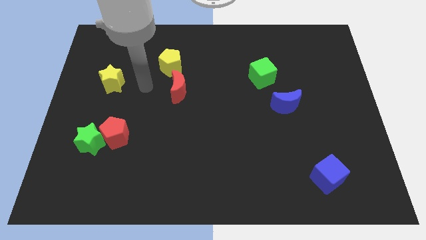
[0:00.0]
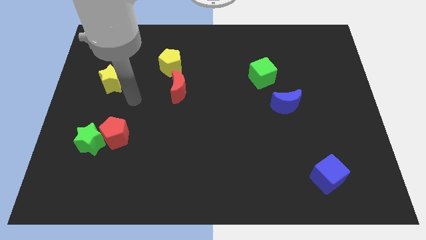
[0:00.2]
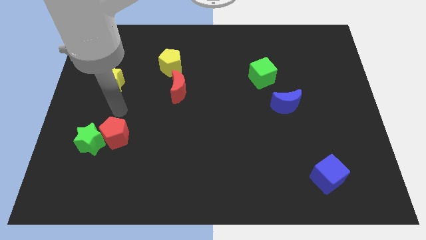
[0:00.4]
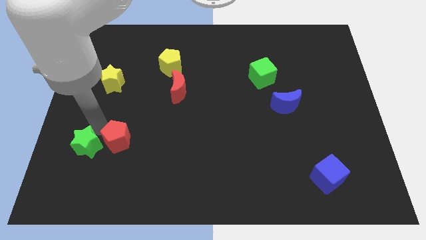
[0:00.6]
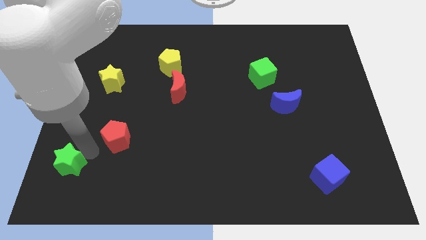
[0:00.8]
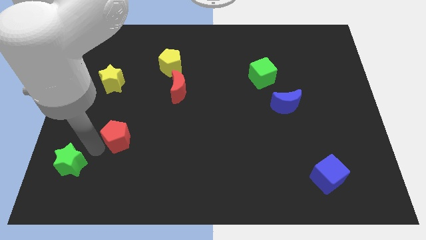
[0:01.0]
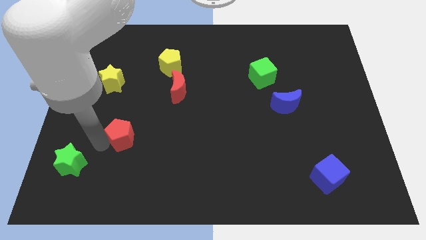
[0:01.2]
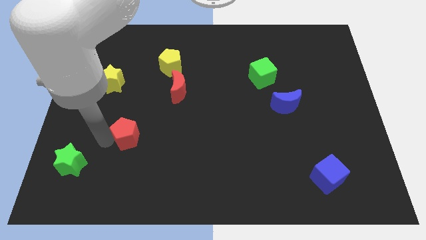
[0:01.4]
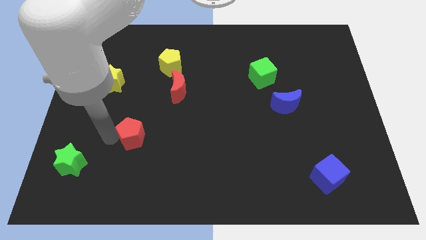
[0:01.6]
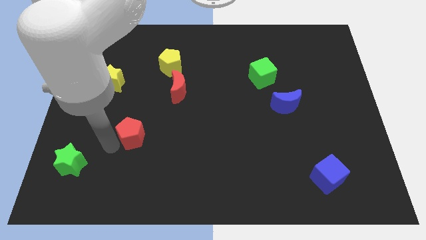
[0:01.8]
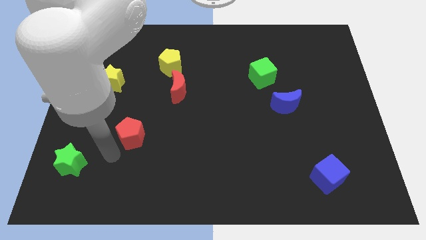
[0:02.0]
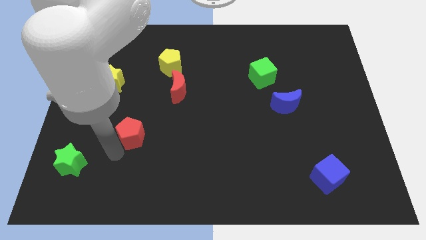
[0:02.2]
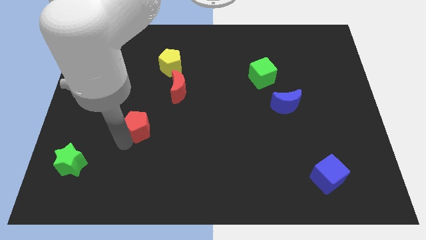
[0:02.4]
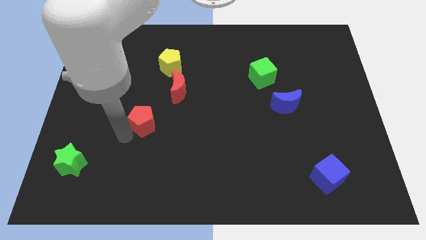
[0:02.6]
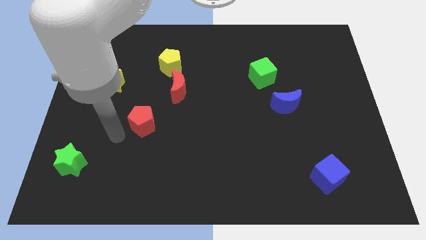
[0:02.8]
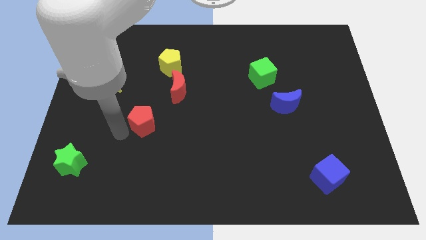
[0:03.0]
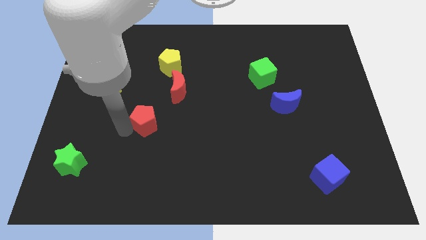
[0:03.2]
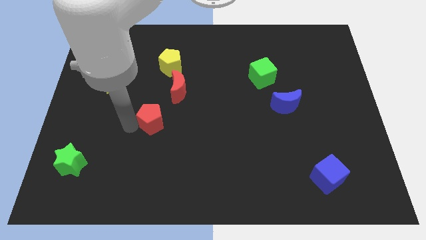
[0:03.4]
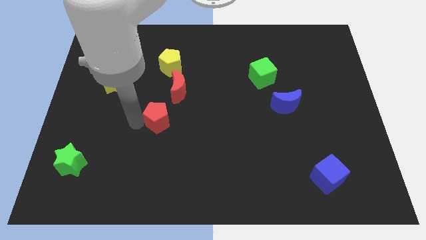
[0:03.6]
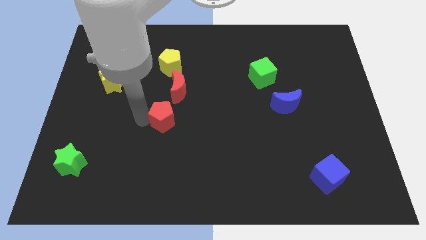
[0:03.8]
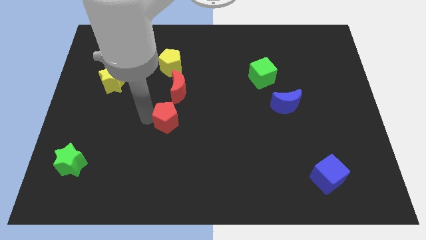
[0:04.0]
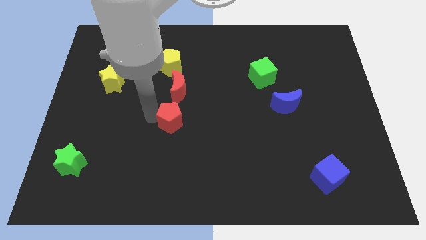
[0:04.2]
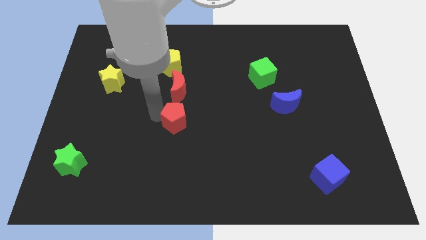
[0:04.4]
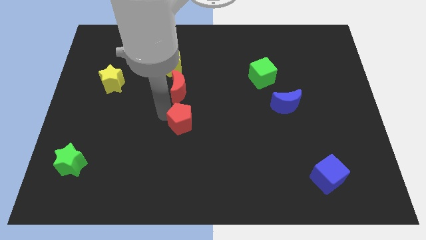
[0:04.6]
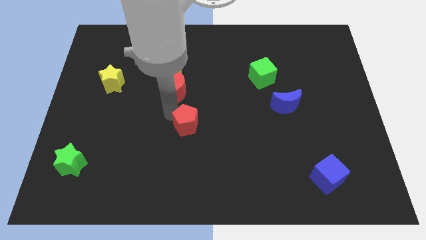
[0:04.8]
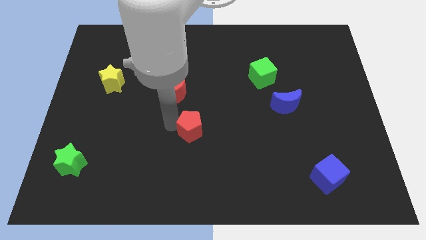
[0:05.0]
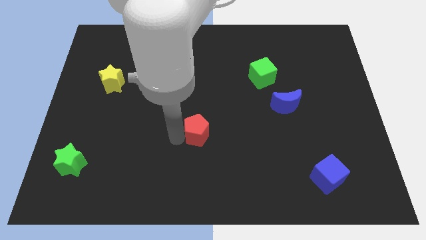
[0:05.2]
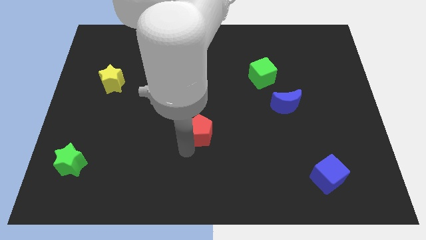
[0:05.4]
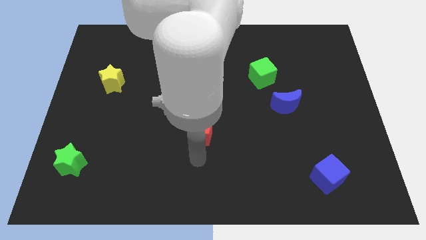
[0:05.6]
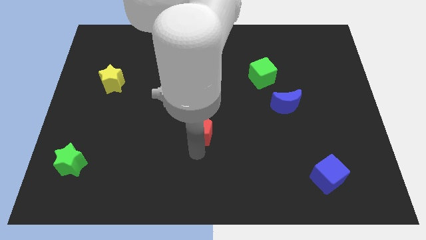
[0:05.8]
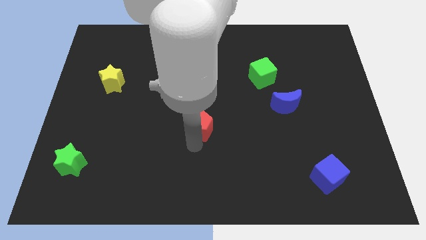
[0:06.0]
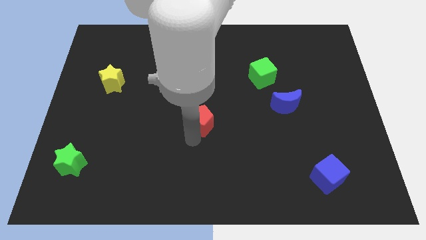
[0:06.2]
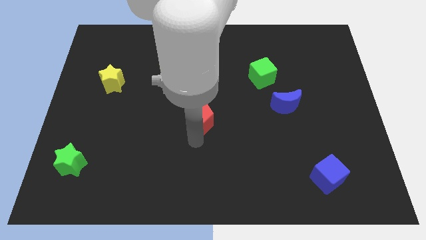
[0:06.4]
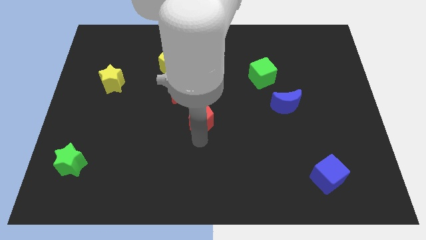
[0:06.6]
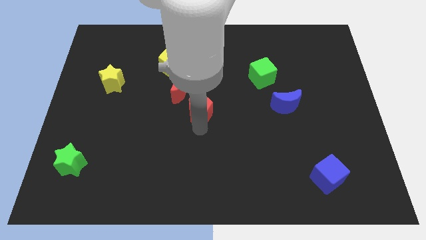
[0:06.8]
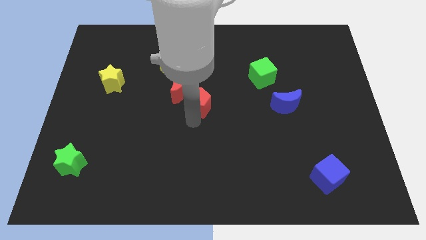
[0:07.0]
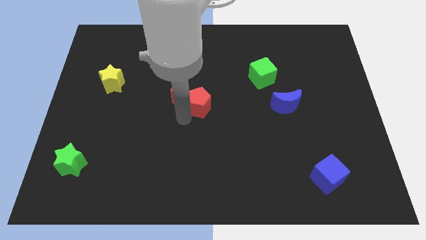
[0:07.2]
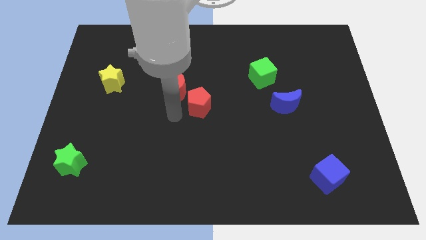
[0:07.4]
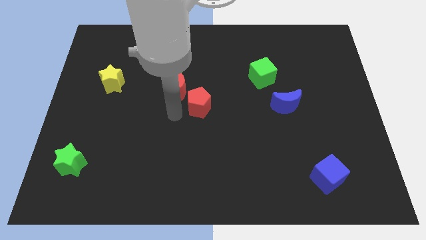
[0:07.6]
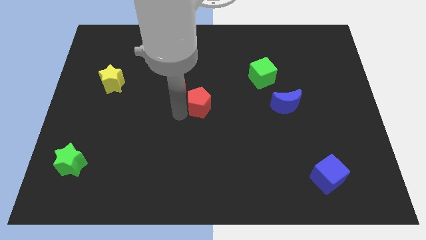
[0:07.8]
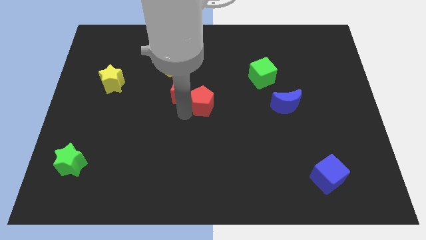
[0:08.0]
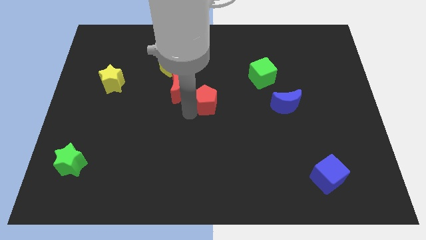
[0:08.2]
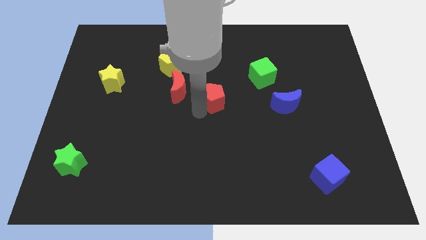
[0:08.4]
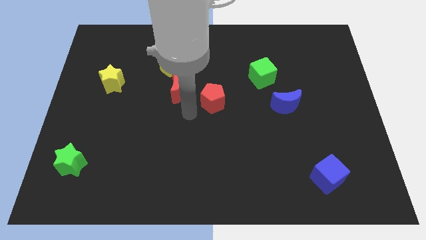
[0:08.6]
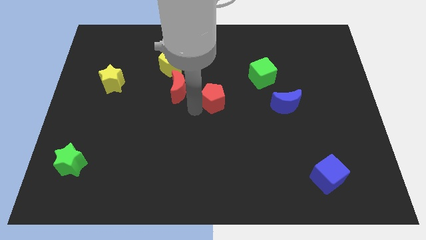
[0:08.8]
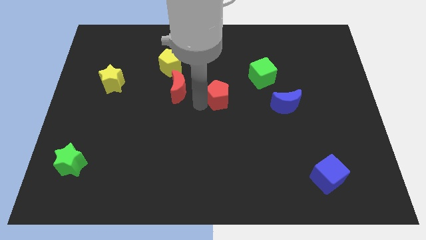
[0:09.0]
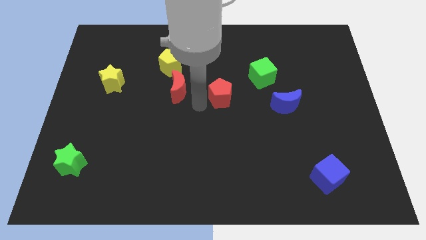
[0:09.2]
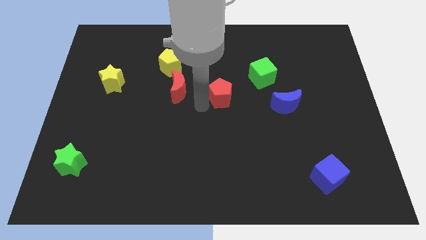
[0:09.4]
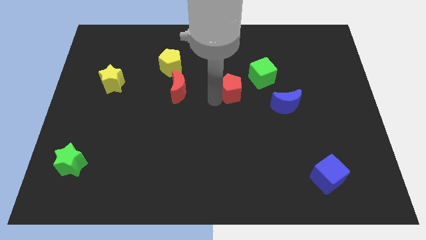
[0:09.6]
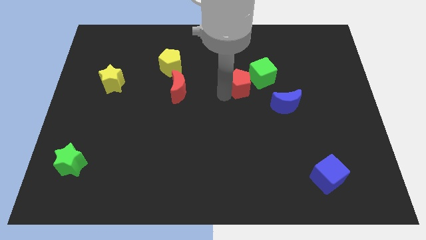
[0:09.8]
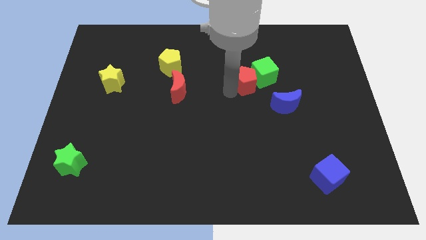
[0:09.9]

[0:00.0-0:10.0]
put the red pentagon next to the green cube

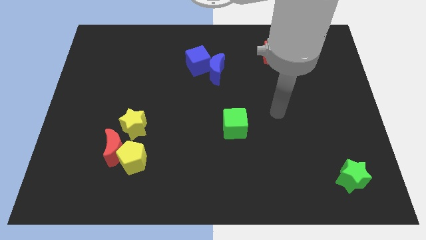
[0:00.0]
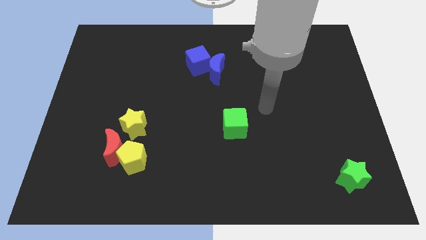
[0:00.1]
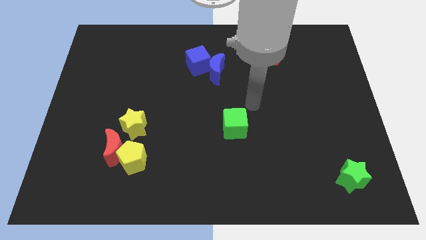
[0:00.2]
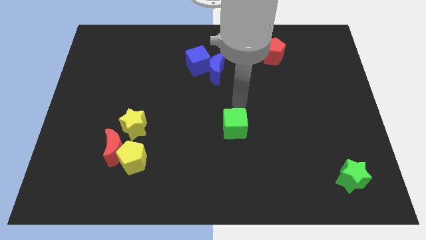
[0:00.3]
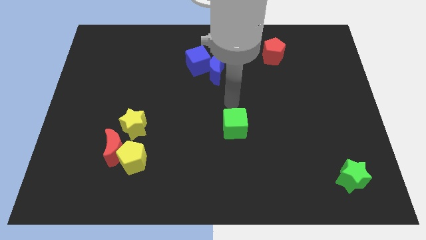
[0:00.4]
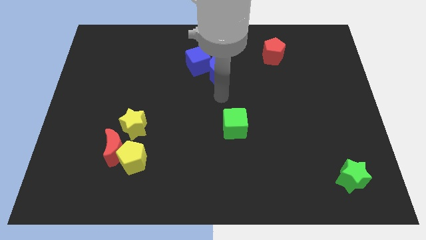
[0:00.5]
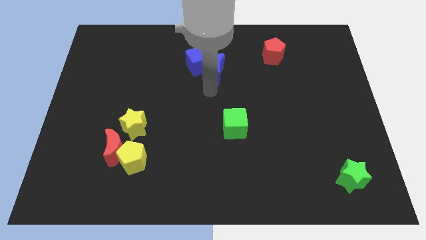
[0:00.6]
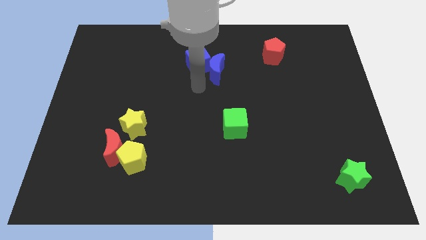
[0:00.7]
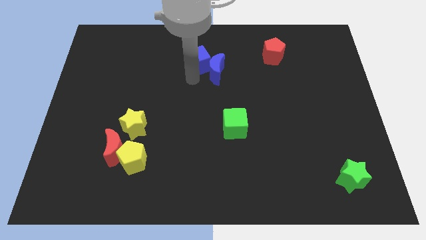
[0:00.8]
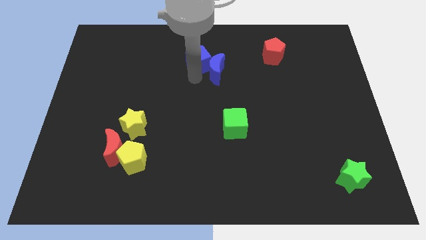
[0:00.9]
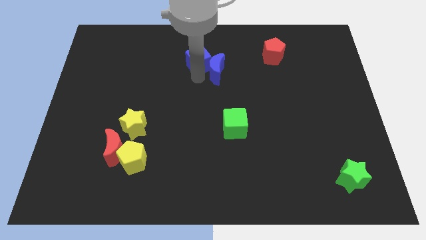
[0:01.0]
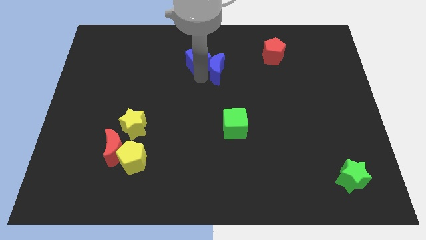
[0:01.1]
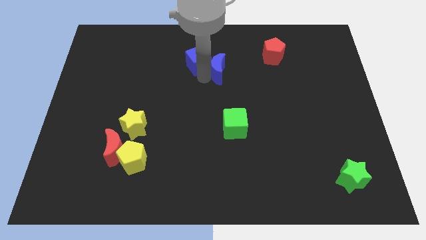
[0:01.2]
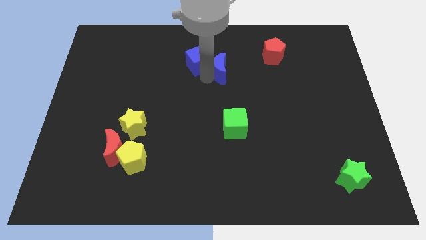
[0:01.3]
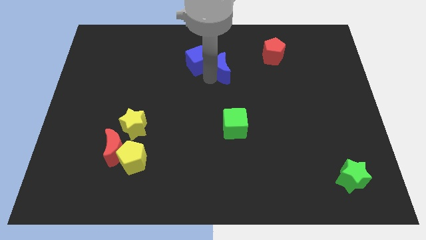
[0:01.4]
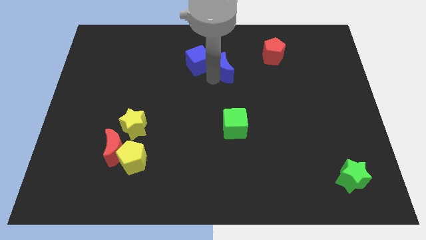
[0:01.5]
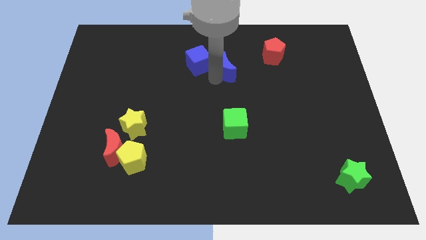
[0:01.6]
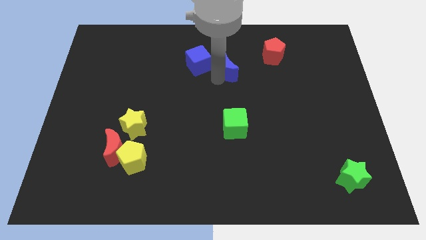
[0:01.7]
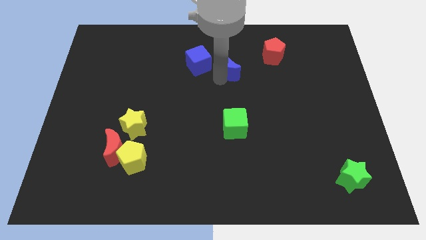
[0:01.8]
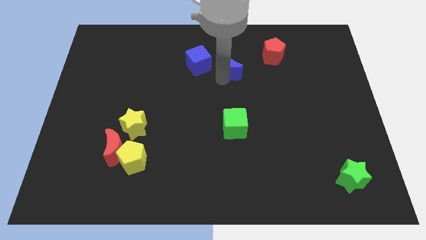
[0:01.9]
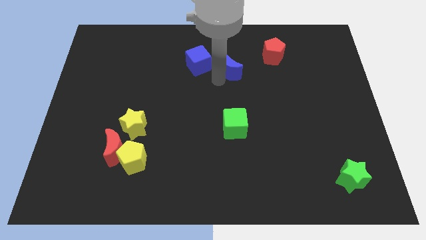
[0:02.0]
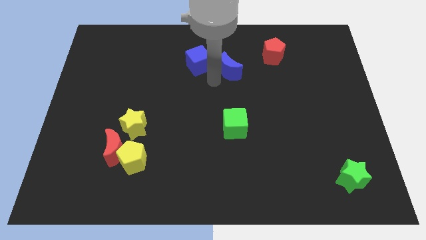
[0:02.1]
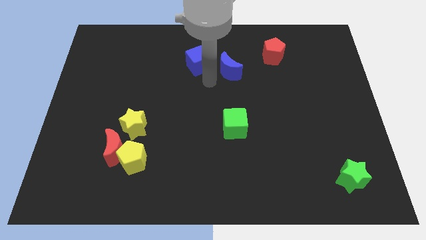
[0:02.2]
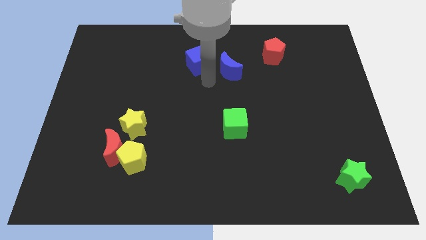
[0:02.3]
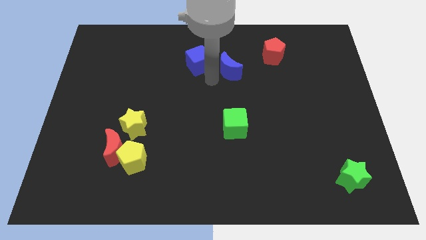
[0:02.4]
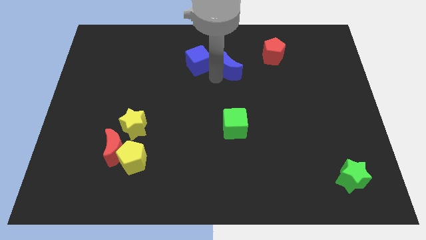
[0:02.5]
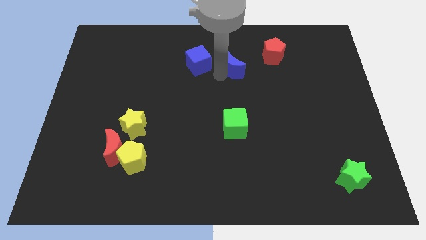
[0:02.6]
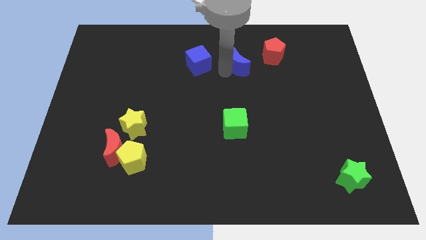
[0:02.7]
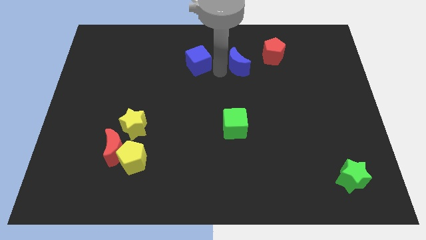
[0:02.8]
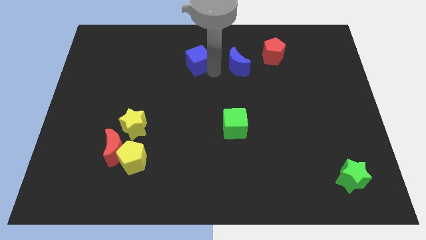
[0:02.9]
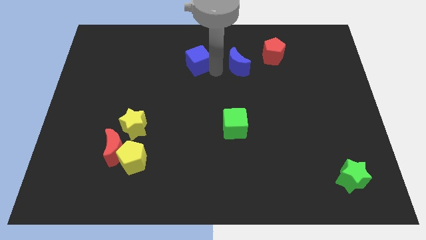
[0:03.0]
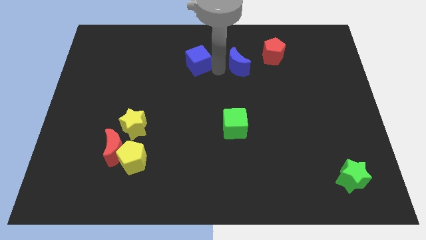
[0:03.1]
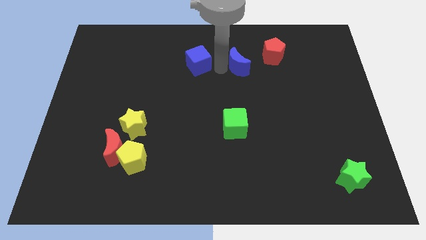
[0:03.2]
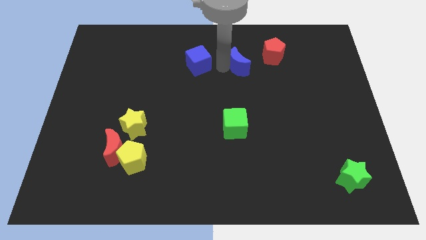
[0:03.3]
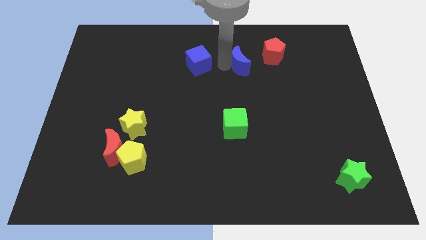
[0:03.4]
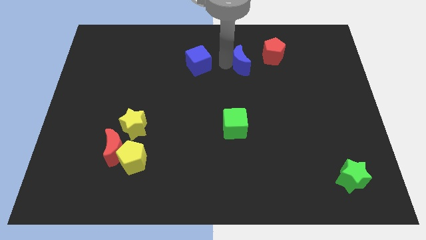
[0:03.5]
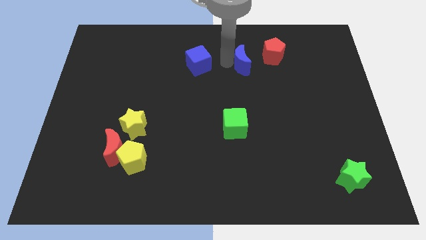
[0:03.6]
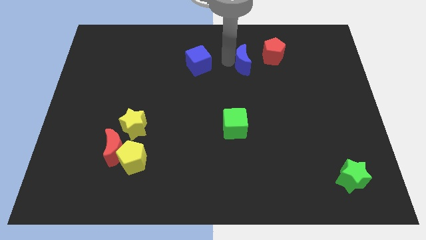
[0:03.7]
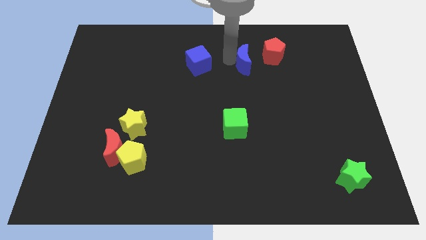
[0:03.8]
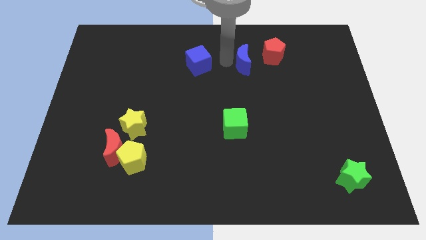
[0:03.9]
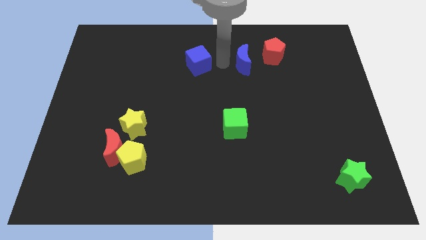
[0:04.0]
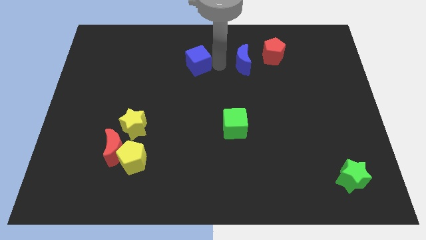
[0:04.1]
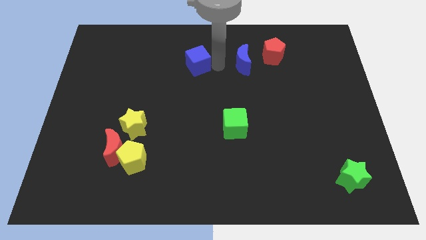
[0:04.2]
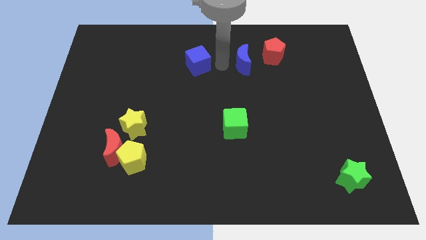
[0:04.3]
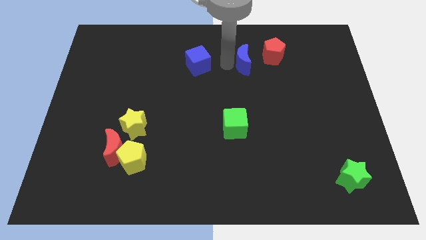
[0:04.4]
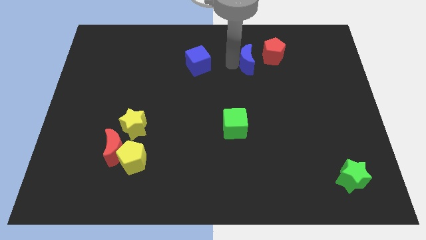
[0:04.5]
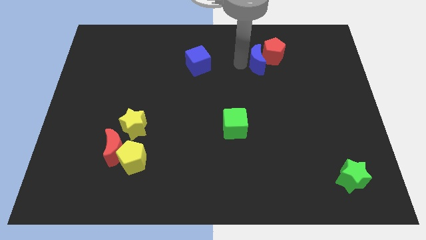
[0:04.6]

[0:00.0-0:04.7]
move the blue moon to the red pentagon
